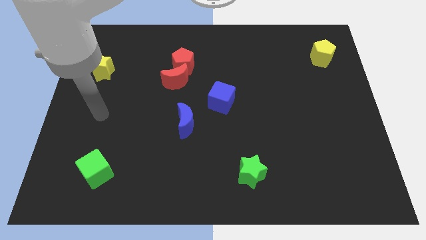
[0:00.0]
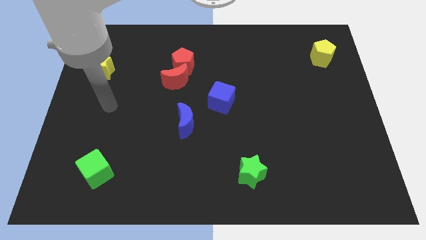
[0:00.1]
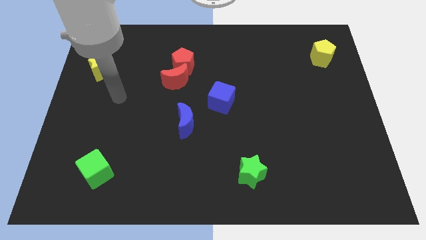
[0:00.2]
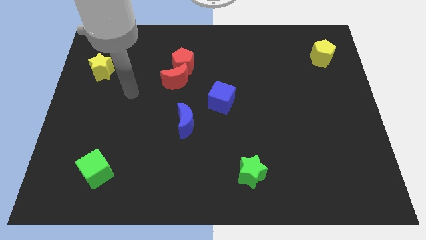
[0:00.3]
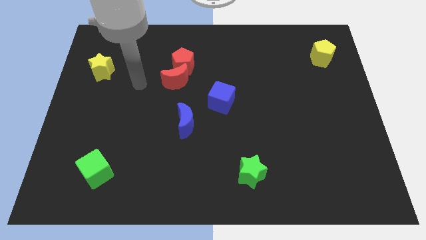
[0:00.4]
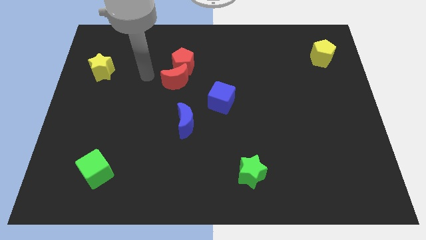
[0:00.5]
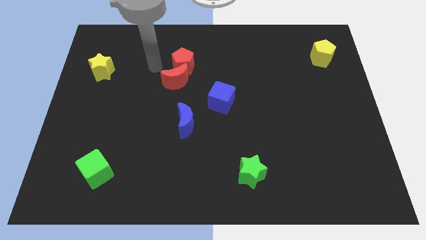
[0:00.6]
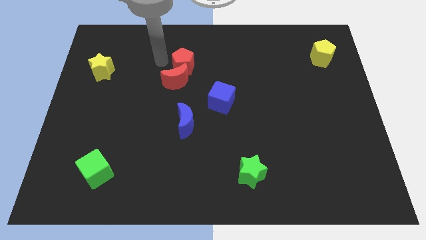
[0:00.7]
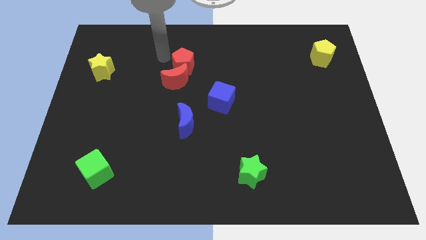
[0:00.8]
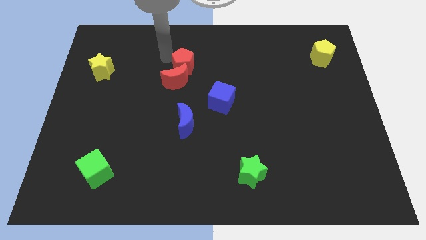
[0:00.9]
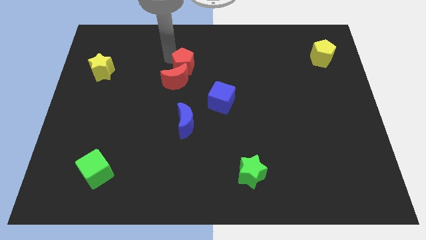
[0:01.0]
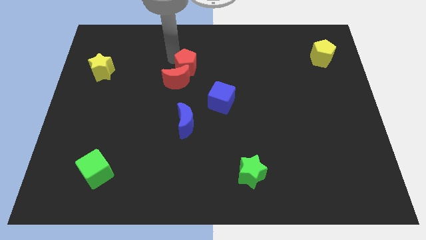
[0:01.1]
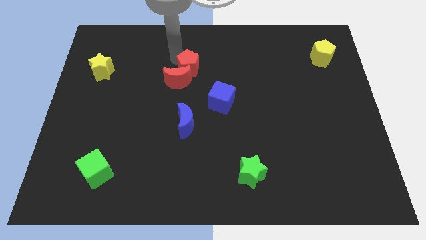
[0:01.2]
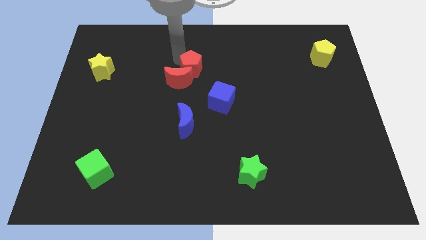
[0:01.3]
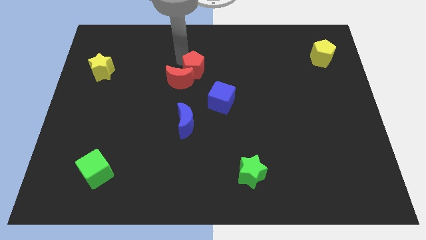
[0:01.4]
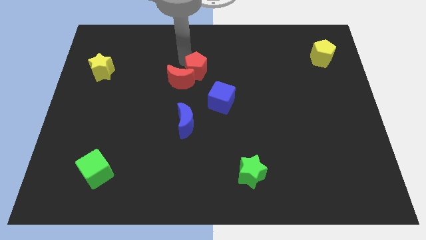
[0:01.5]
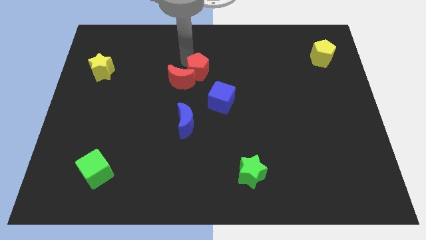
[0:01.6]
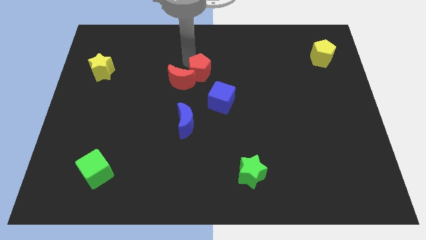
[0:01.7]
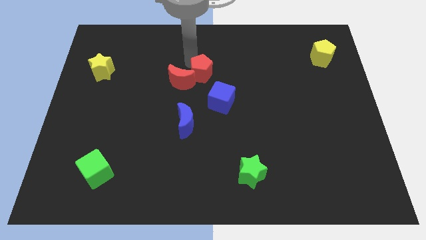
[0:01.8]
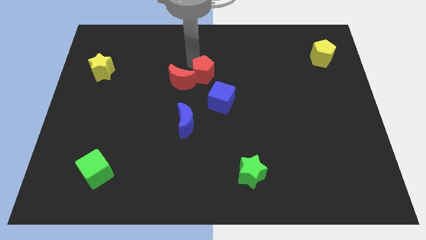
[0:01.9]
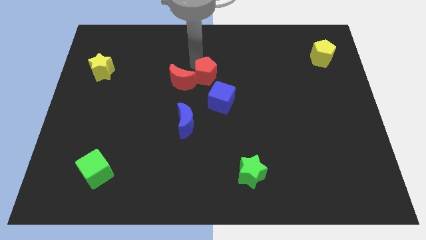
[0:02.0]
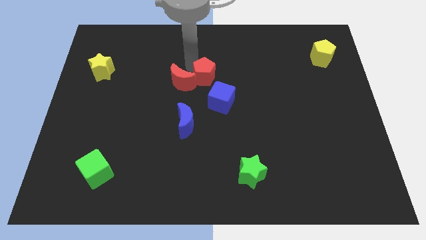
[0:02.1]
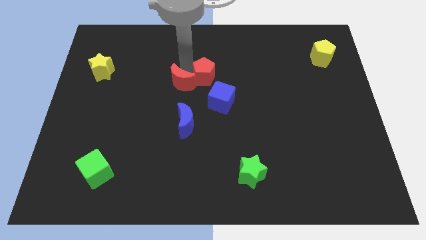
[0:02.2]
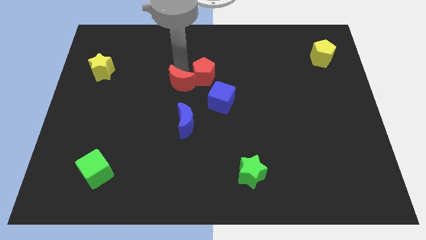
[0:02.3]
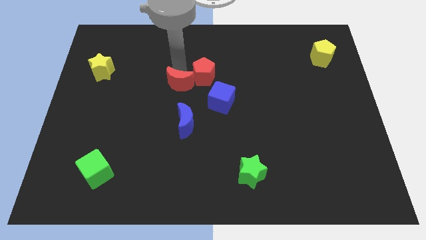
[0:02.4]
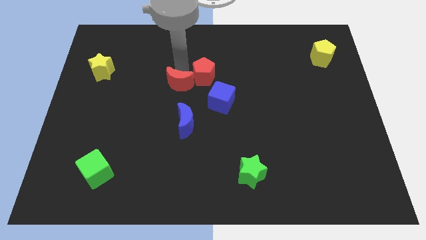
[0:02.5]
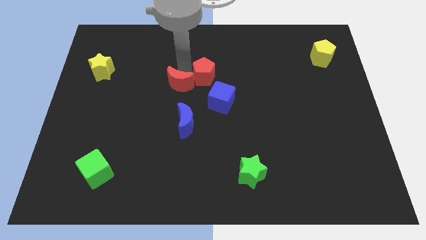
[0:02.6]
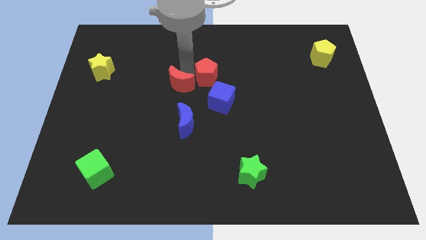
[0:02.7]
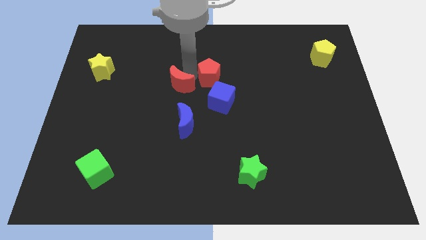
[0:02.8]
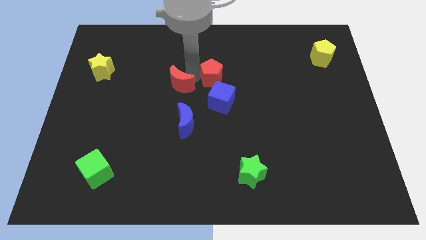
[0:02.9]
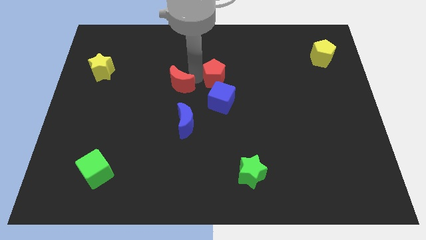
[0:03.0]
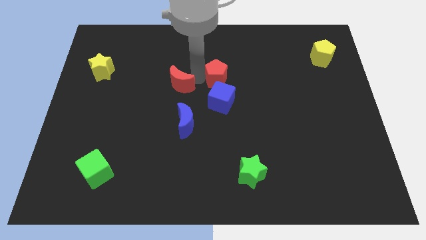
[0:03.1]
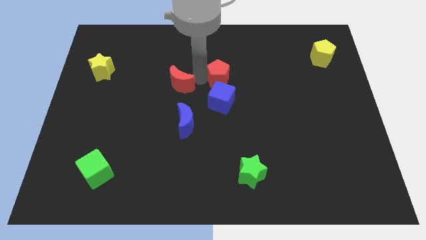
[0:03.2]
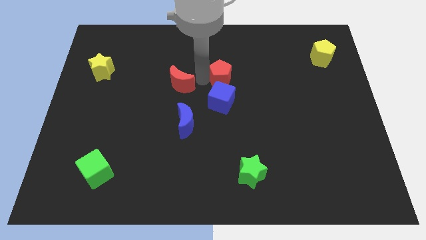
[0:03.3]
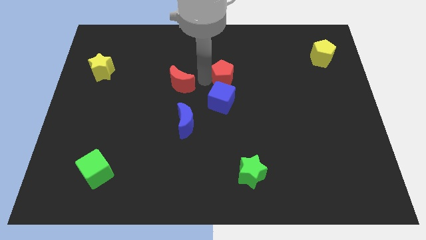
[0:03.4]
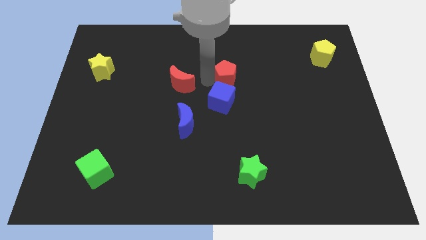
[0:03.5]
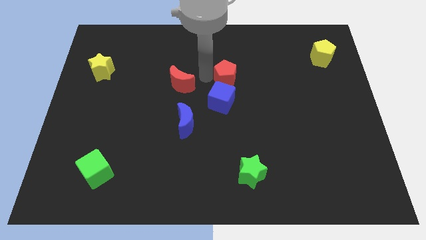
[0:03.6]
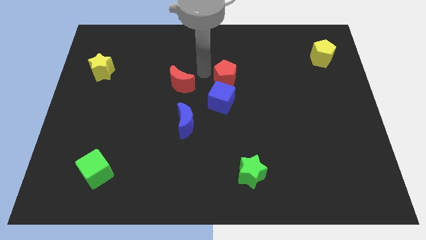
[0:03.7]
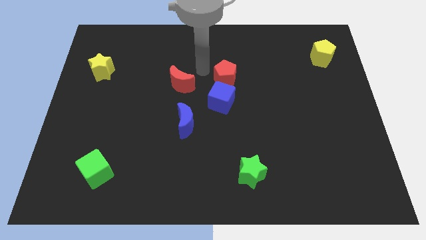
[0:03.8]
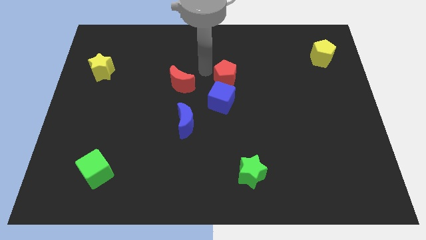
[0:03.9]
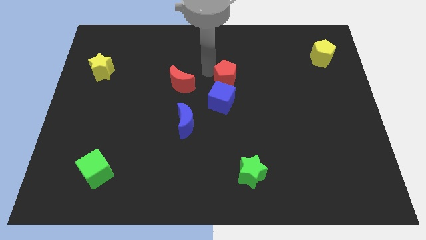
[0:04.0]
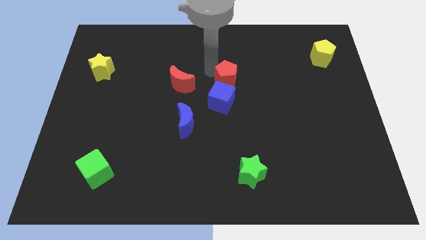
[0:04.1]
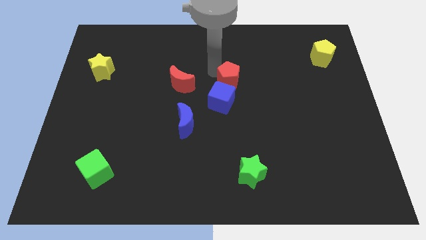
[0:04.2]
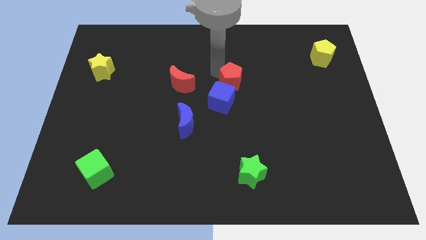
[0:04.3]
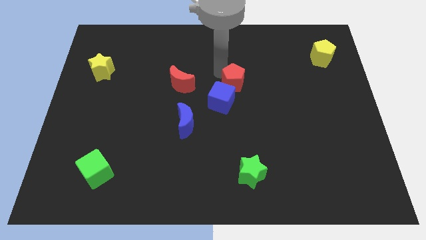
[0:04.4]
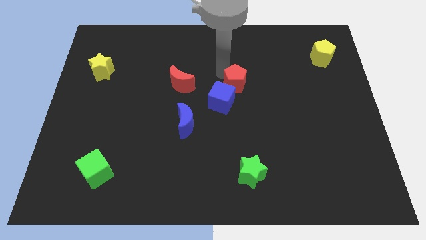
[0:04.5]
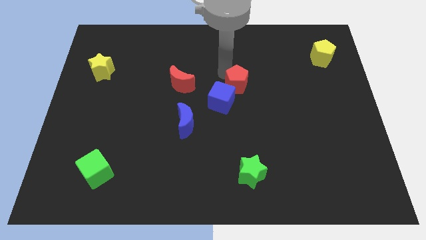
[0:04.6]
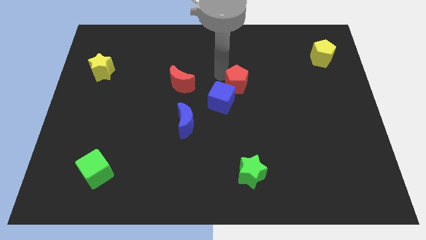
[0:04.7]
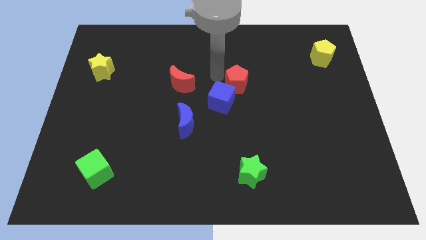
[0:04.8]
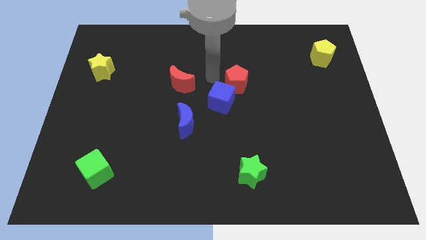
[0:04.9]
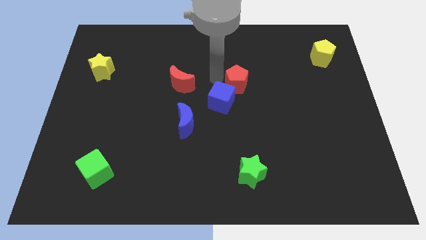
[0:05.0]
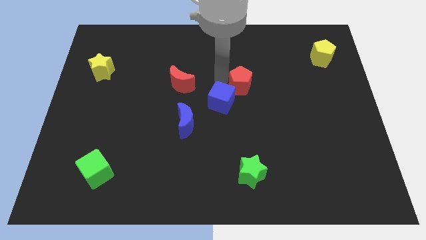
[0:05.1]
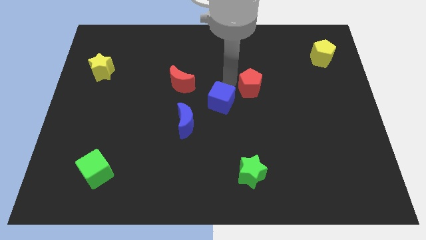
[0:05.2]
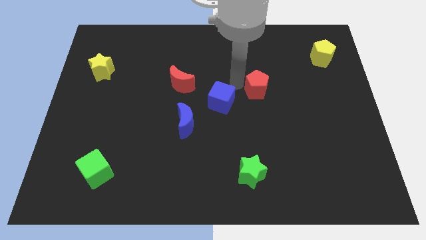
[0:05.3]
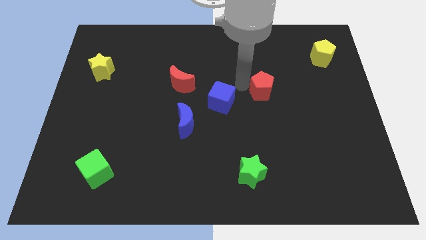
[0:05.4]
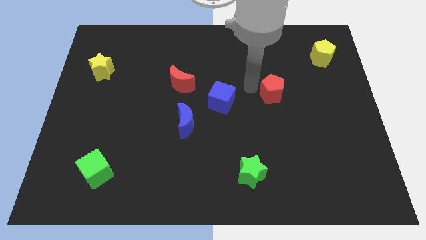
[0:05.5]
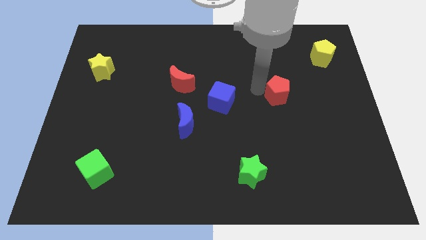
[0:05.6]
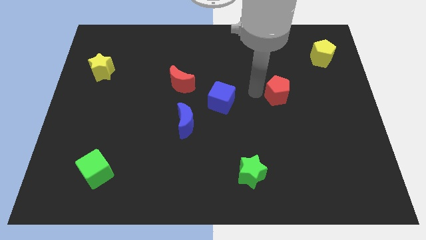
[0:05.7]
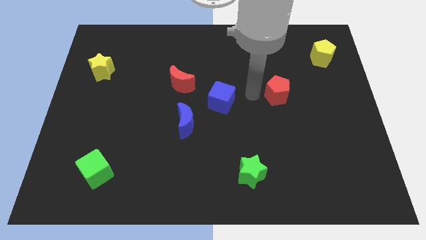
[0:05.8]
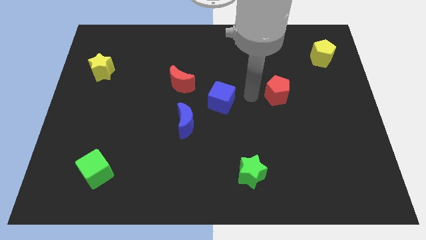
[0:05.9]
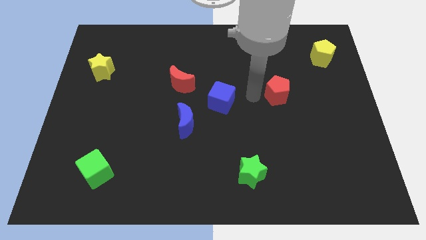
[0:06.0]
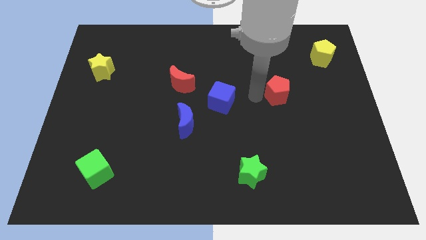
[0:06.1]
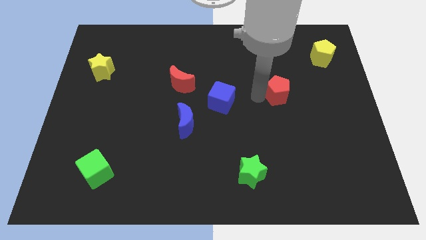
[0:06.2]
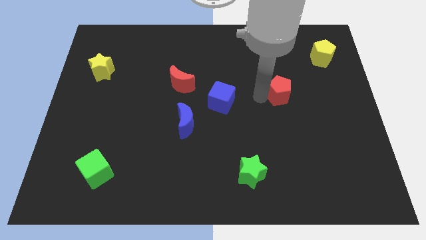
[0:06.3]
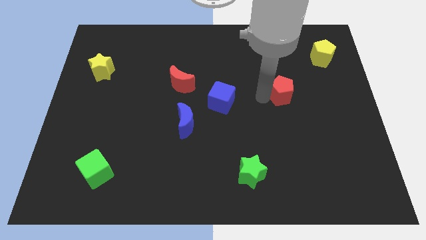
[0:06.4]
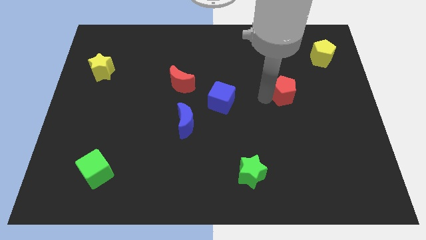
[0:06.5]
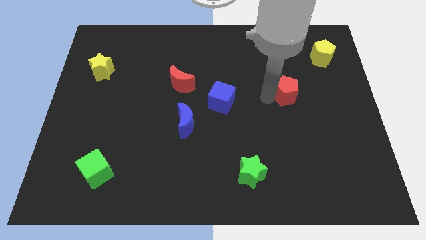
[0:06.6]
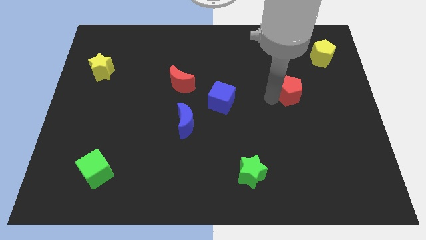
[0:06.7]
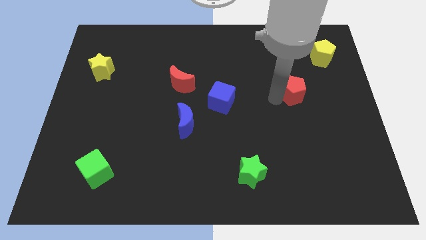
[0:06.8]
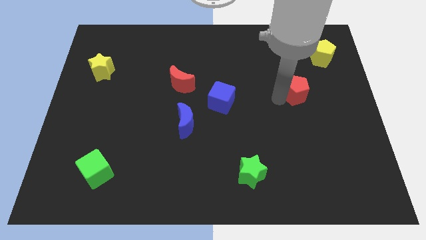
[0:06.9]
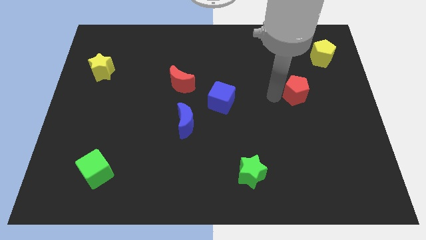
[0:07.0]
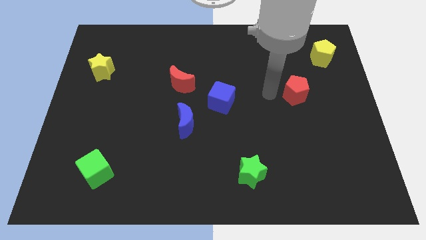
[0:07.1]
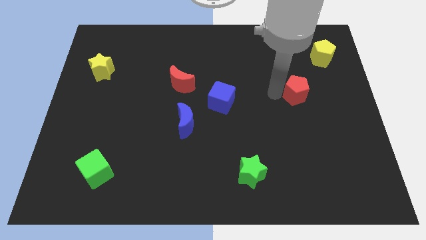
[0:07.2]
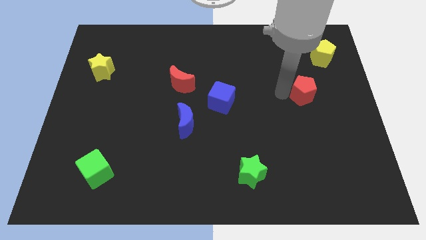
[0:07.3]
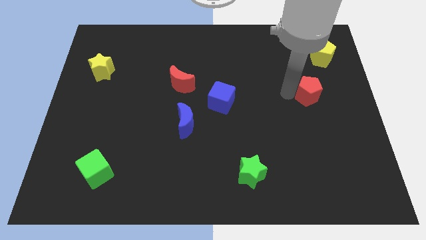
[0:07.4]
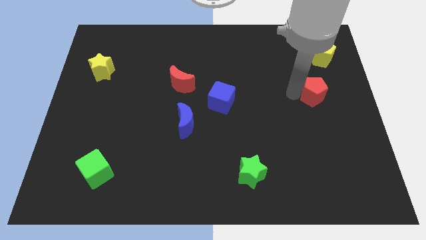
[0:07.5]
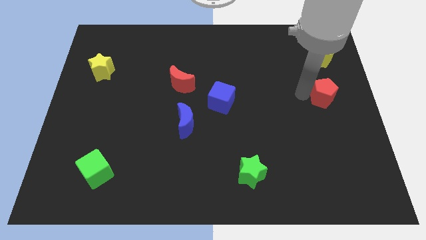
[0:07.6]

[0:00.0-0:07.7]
put the red pentagon to the right side
